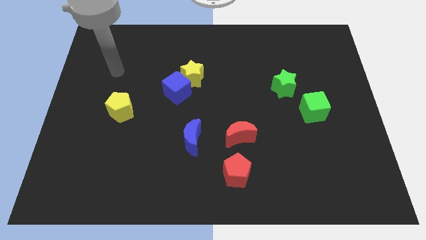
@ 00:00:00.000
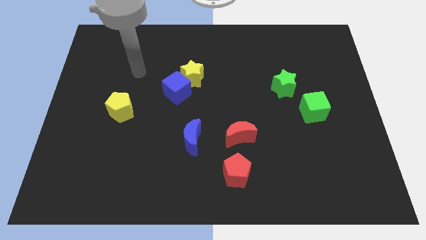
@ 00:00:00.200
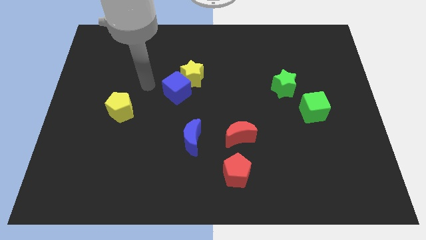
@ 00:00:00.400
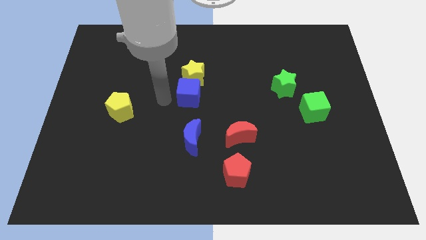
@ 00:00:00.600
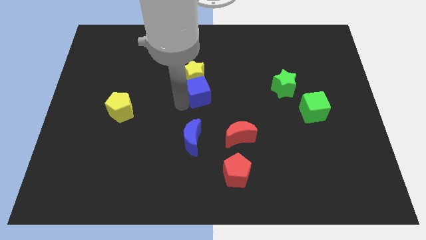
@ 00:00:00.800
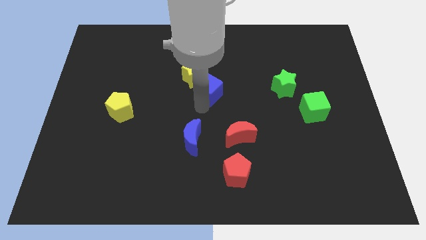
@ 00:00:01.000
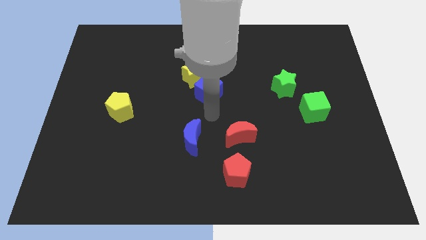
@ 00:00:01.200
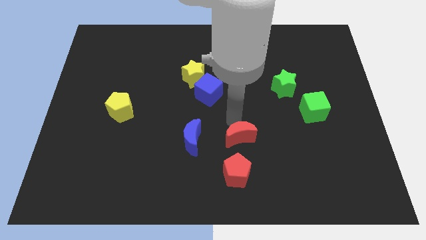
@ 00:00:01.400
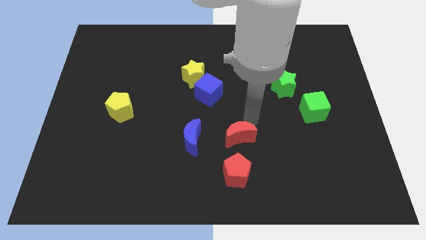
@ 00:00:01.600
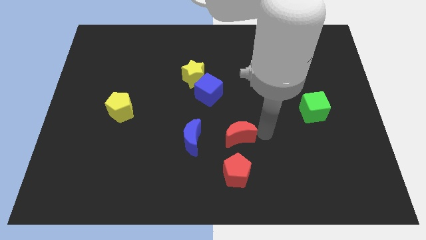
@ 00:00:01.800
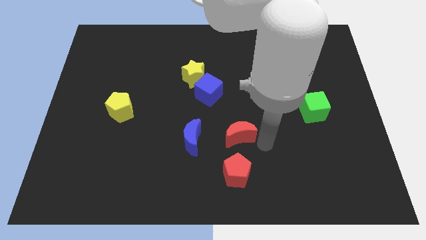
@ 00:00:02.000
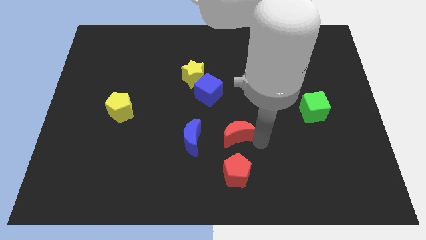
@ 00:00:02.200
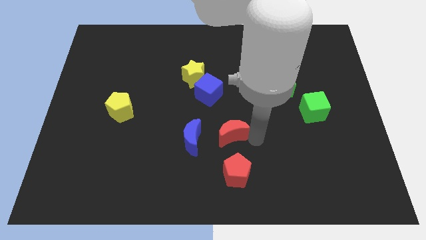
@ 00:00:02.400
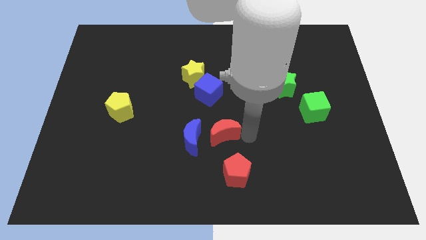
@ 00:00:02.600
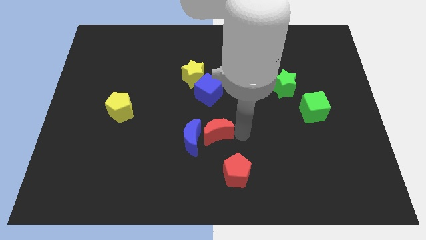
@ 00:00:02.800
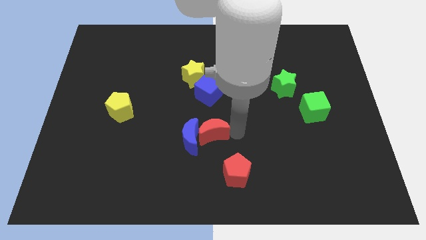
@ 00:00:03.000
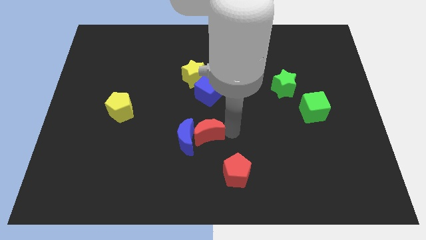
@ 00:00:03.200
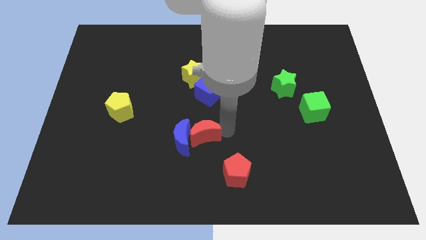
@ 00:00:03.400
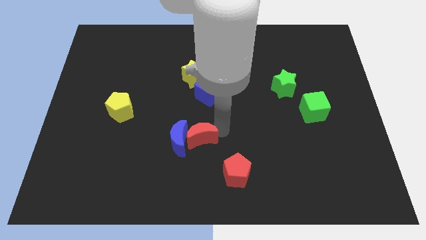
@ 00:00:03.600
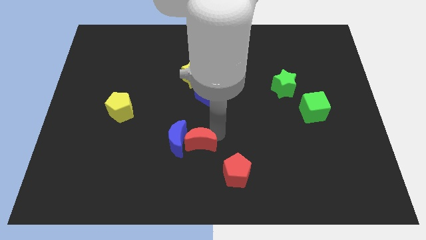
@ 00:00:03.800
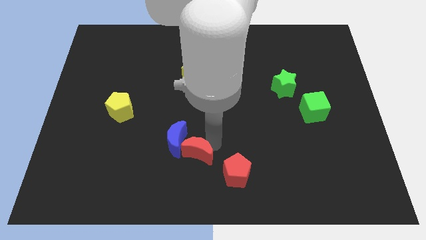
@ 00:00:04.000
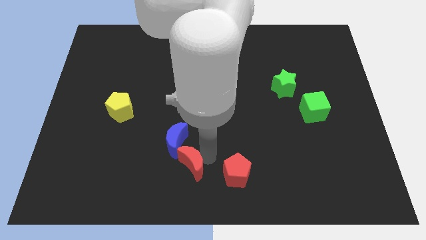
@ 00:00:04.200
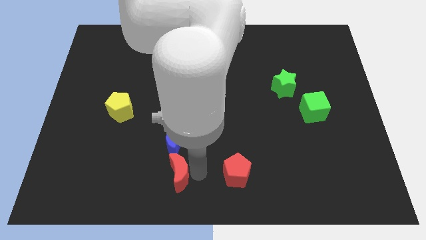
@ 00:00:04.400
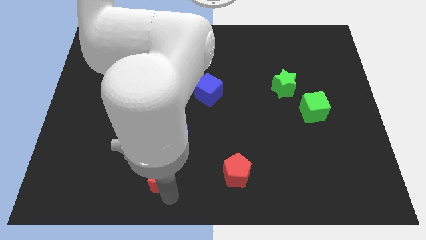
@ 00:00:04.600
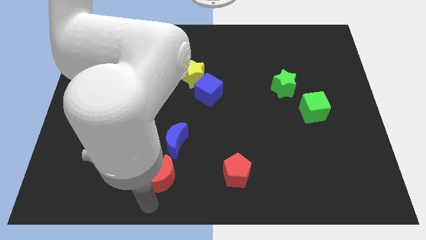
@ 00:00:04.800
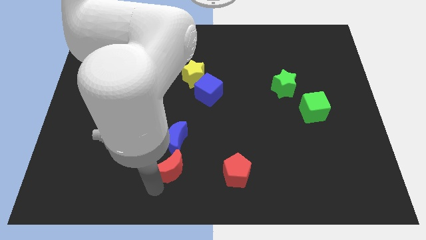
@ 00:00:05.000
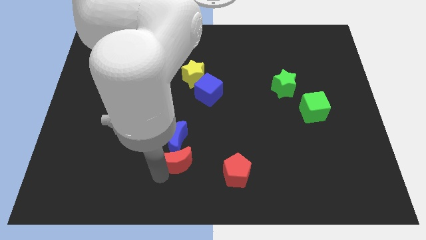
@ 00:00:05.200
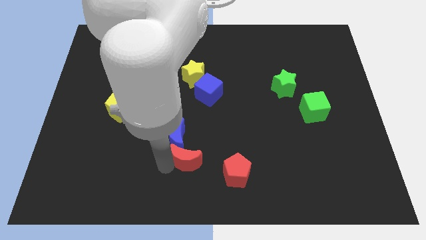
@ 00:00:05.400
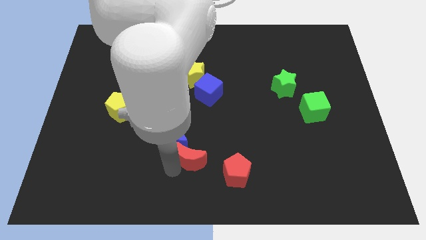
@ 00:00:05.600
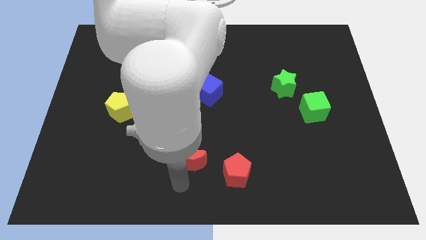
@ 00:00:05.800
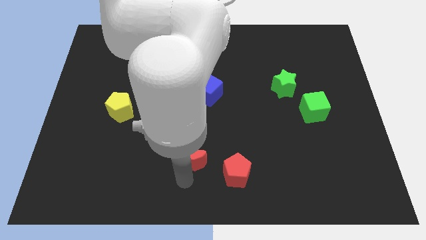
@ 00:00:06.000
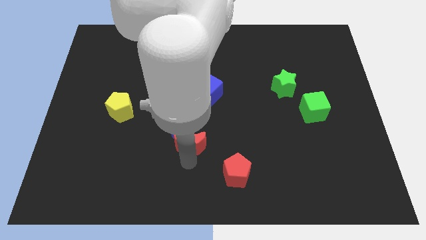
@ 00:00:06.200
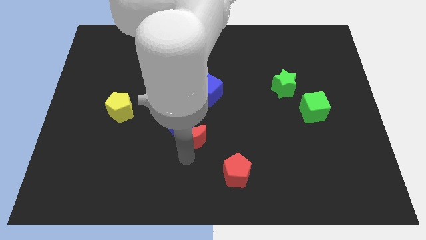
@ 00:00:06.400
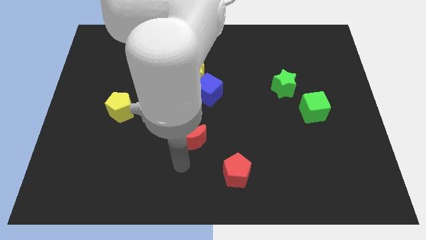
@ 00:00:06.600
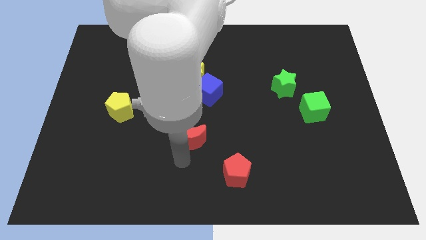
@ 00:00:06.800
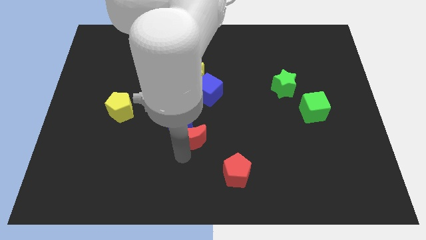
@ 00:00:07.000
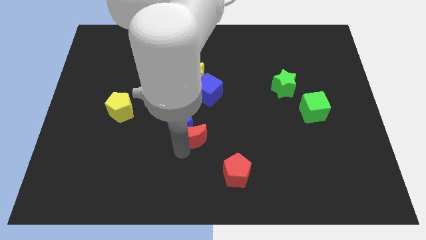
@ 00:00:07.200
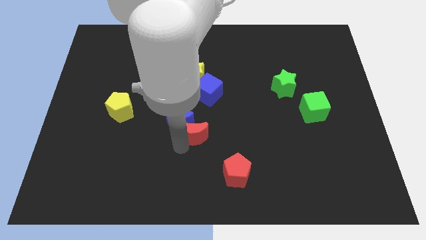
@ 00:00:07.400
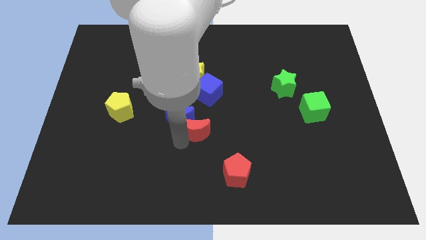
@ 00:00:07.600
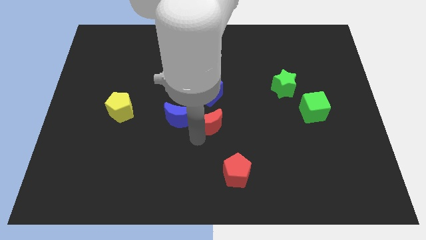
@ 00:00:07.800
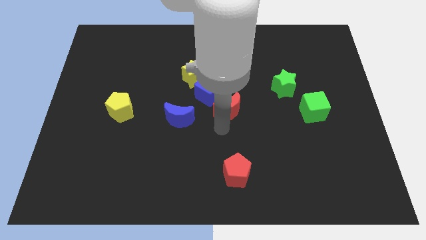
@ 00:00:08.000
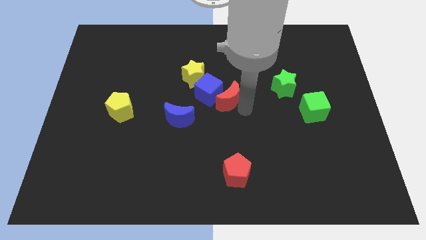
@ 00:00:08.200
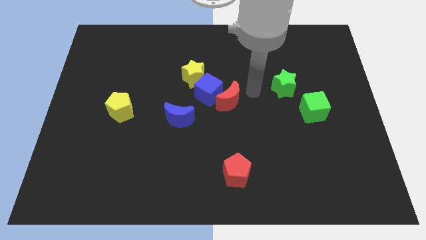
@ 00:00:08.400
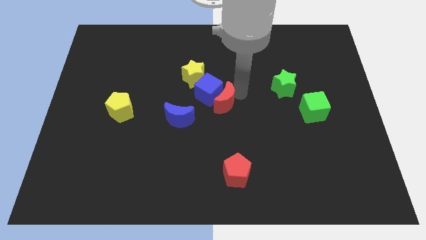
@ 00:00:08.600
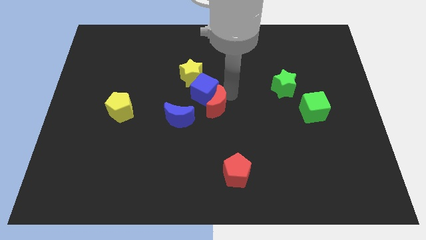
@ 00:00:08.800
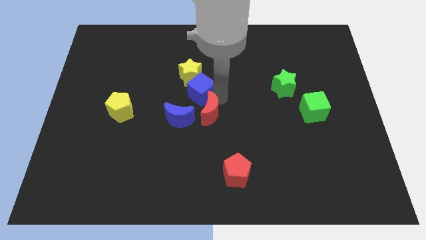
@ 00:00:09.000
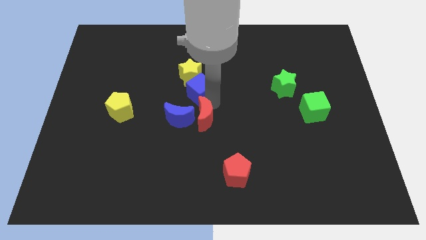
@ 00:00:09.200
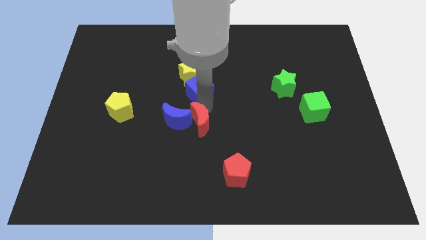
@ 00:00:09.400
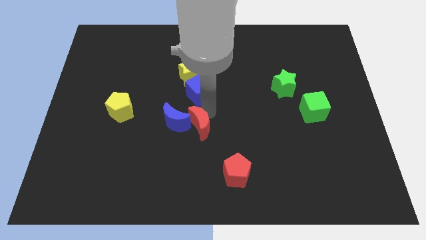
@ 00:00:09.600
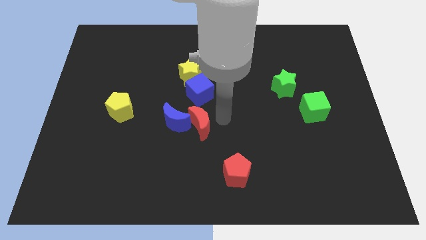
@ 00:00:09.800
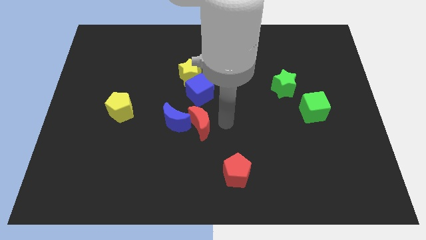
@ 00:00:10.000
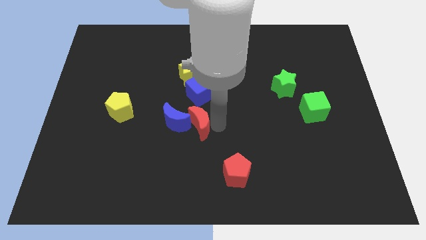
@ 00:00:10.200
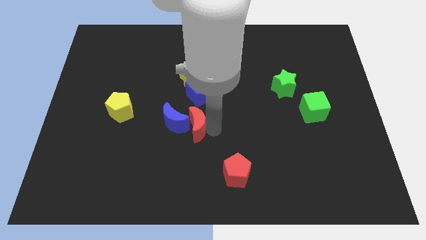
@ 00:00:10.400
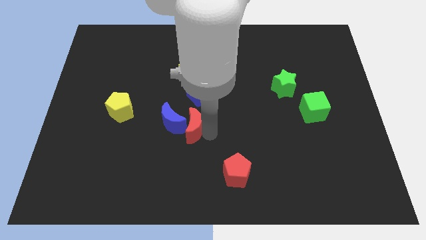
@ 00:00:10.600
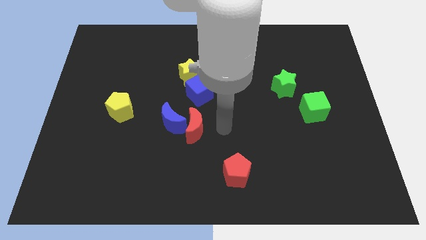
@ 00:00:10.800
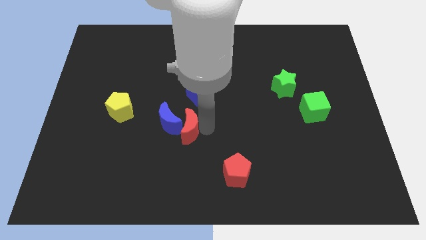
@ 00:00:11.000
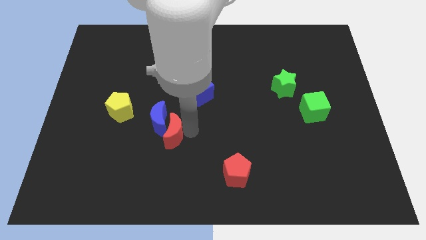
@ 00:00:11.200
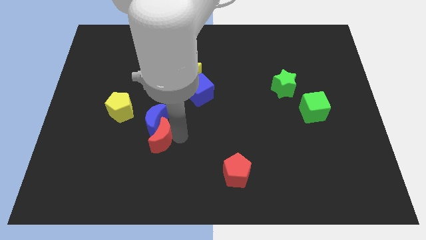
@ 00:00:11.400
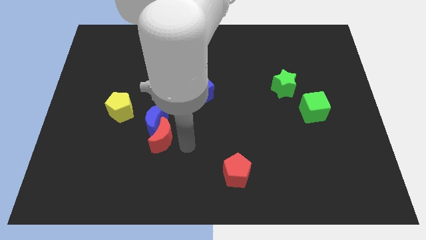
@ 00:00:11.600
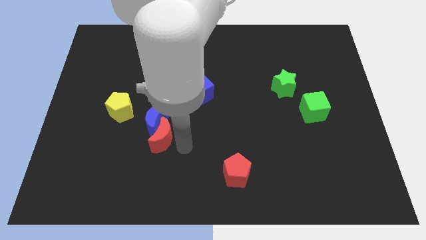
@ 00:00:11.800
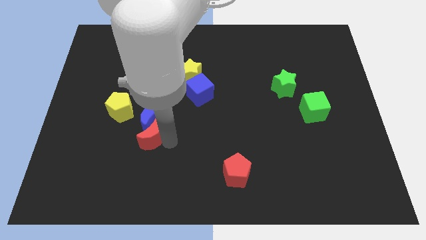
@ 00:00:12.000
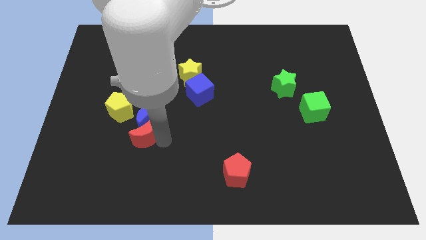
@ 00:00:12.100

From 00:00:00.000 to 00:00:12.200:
slide the red moon left

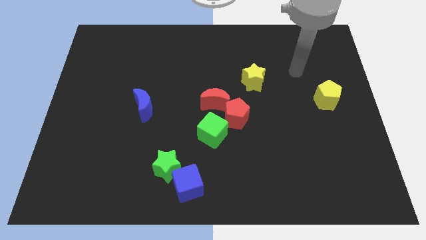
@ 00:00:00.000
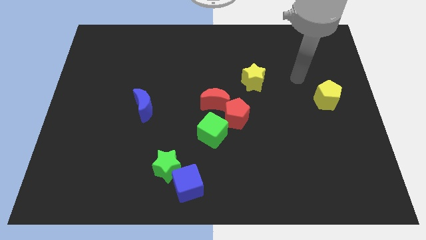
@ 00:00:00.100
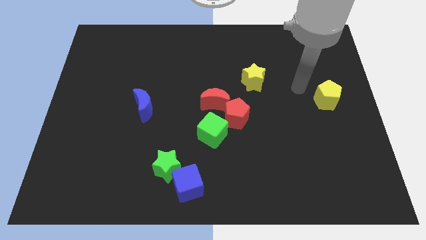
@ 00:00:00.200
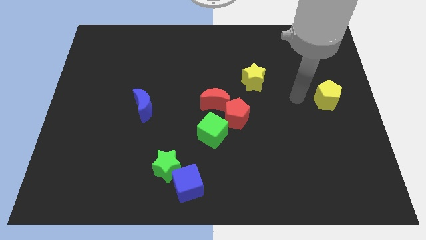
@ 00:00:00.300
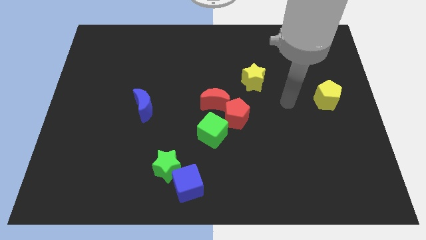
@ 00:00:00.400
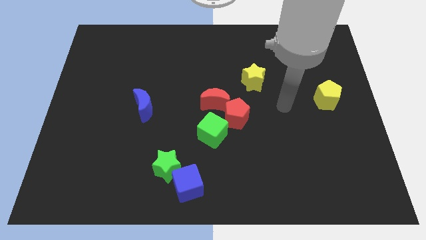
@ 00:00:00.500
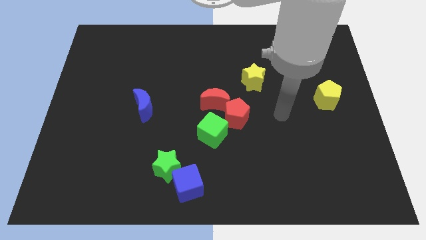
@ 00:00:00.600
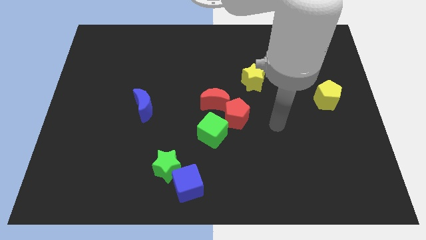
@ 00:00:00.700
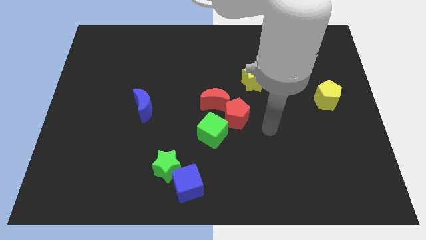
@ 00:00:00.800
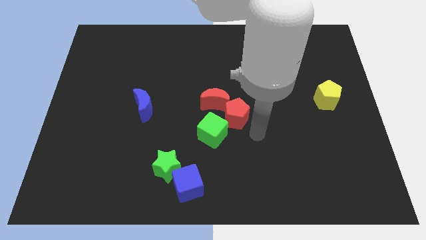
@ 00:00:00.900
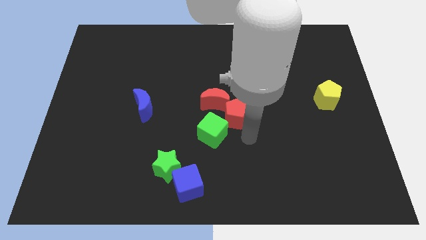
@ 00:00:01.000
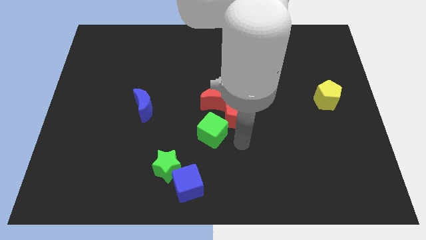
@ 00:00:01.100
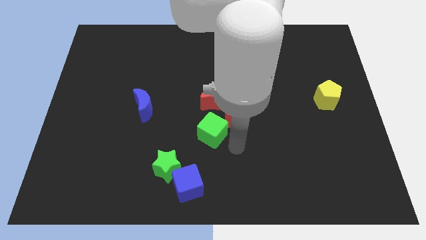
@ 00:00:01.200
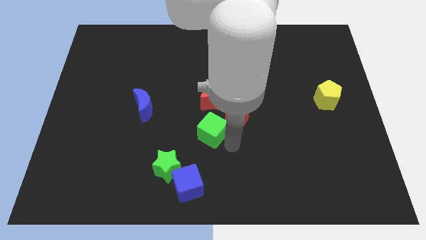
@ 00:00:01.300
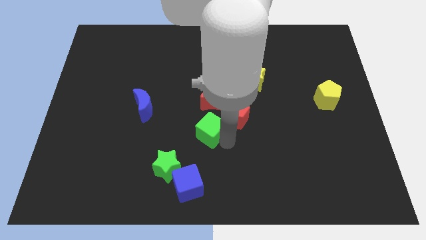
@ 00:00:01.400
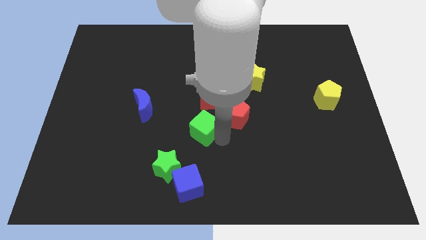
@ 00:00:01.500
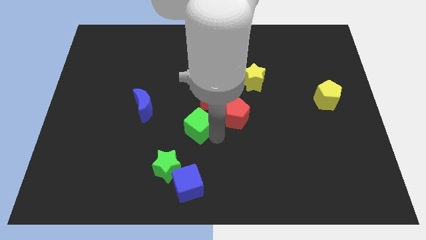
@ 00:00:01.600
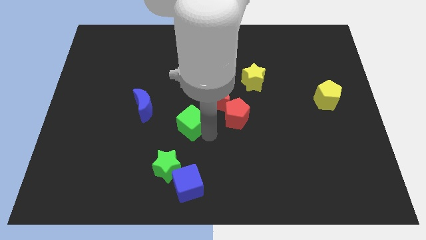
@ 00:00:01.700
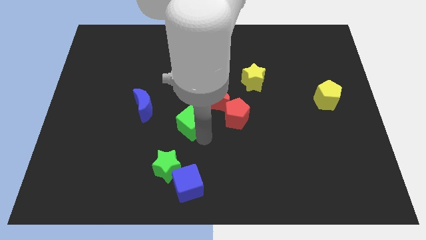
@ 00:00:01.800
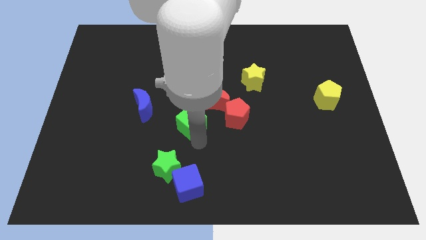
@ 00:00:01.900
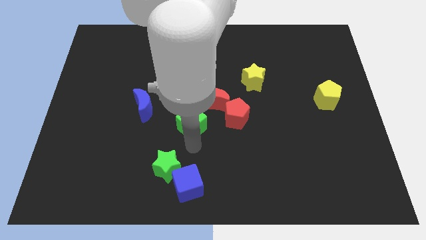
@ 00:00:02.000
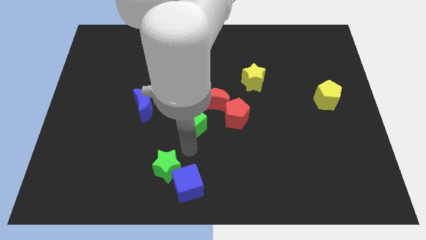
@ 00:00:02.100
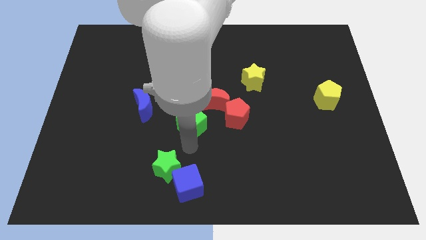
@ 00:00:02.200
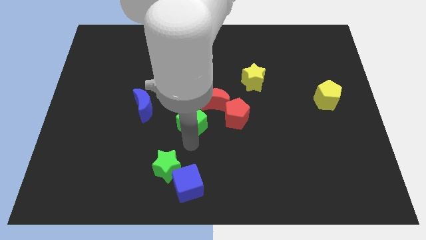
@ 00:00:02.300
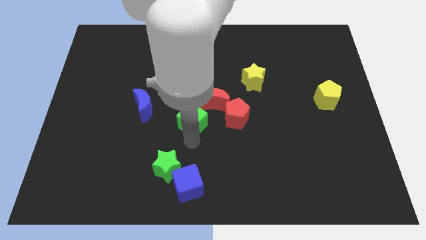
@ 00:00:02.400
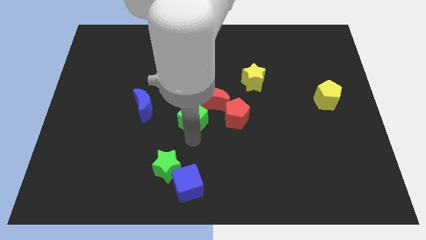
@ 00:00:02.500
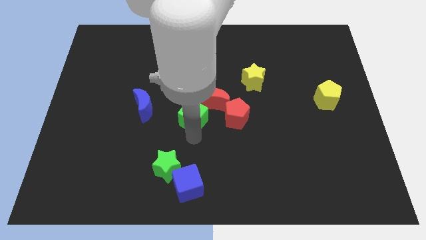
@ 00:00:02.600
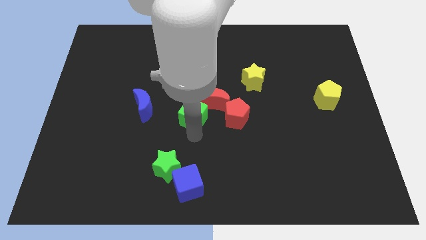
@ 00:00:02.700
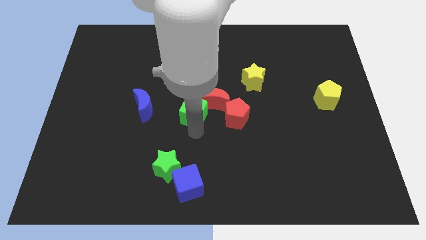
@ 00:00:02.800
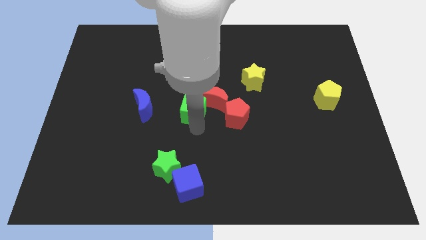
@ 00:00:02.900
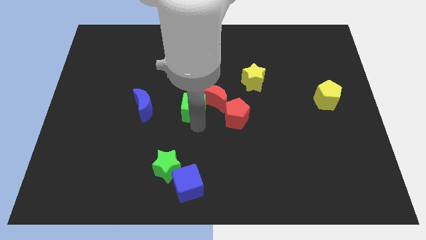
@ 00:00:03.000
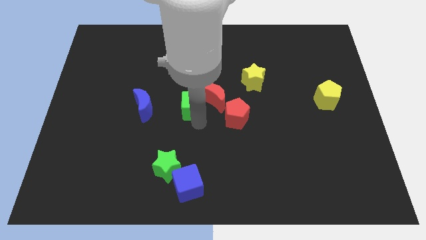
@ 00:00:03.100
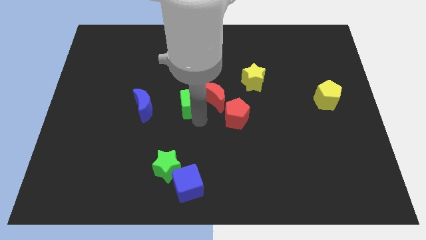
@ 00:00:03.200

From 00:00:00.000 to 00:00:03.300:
slightly slide the green cube up
